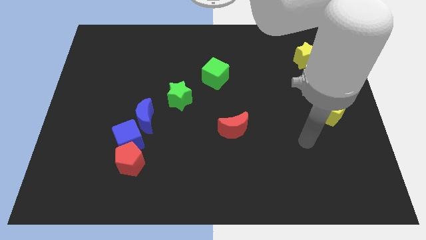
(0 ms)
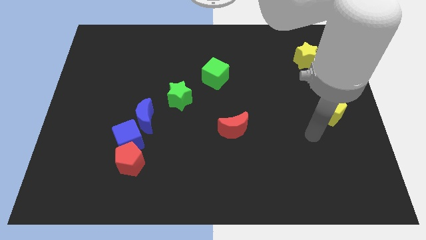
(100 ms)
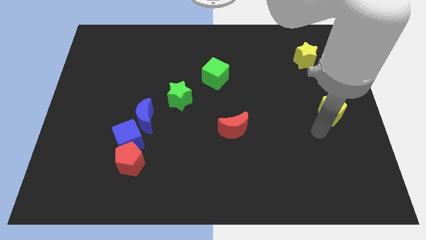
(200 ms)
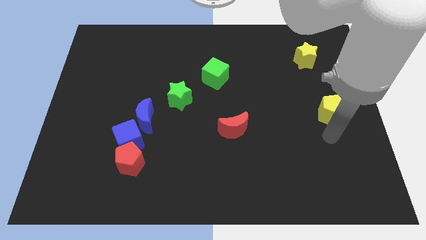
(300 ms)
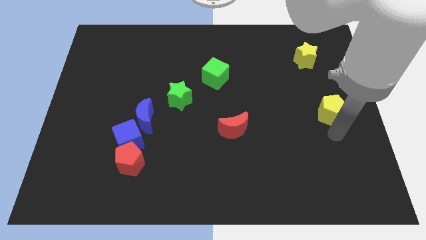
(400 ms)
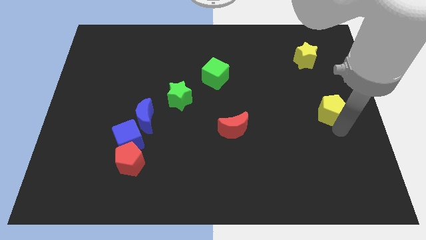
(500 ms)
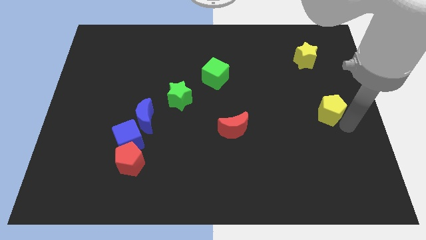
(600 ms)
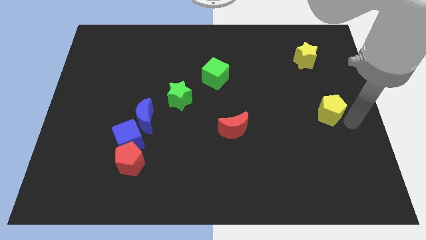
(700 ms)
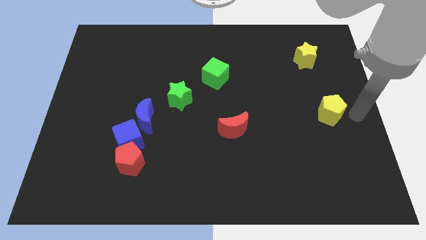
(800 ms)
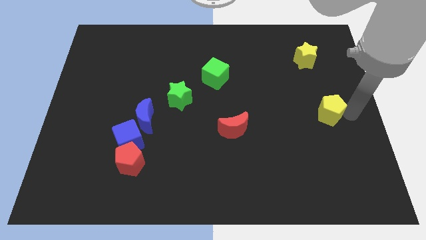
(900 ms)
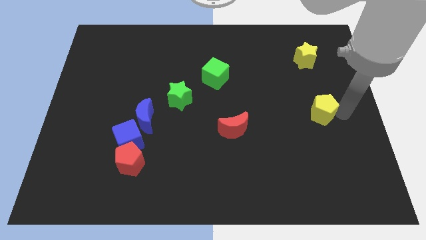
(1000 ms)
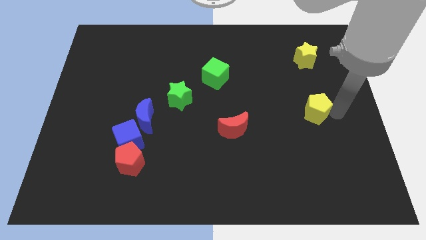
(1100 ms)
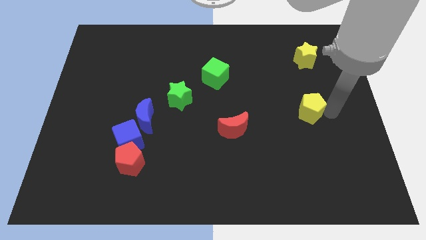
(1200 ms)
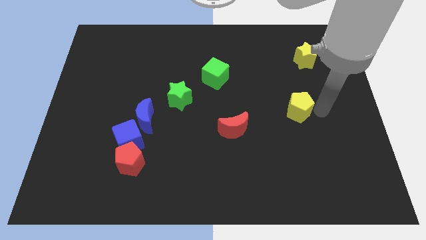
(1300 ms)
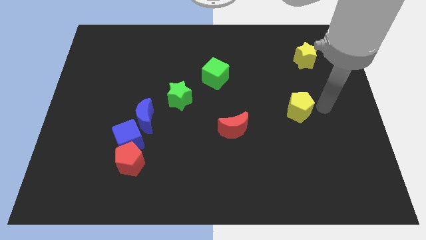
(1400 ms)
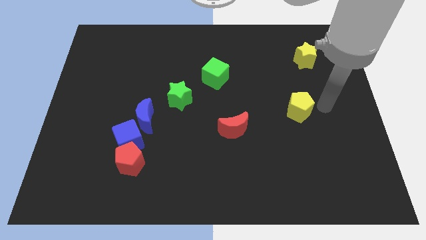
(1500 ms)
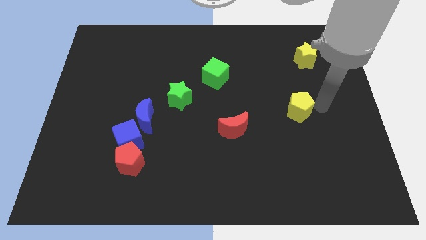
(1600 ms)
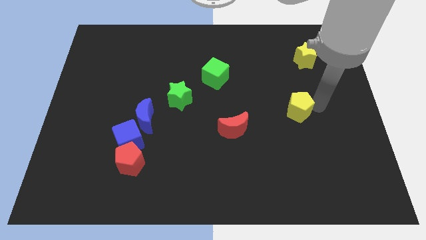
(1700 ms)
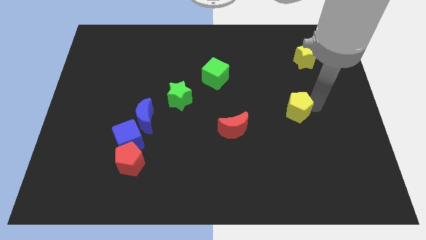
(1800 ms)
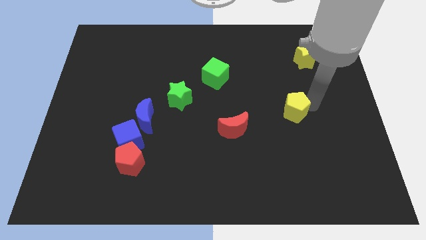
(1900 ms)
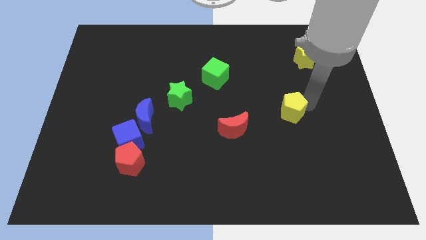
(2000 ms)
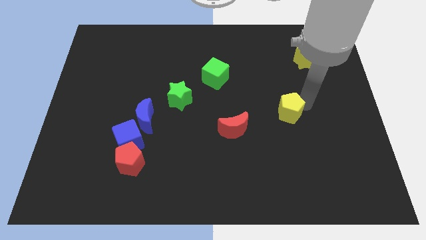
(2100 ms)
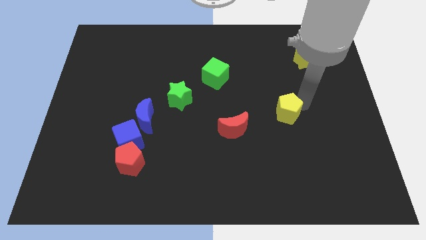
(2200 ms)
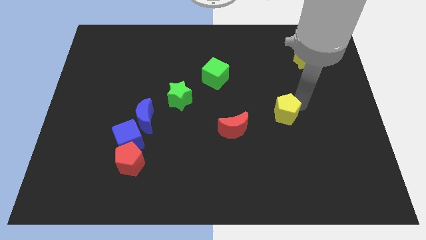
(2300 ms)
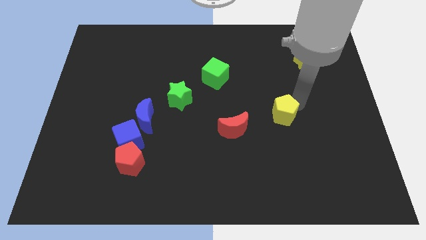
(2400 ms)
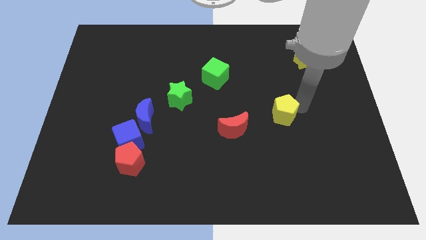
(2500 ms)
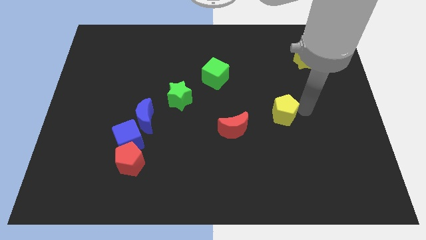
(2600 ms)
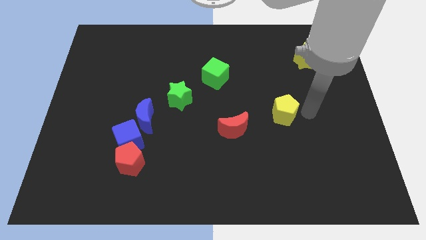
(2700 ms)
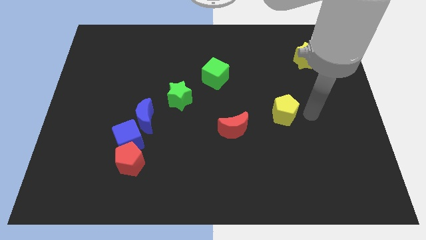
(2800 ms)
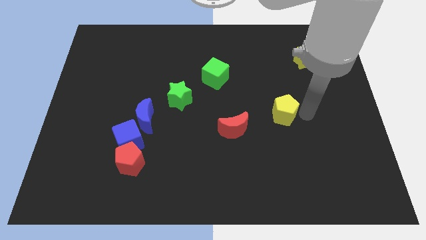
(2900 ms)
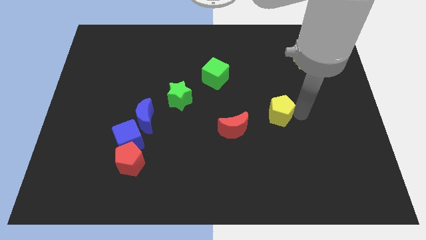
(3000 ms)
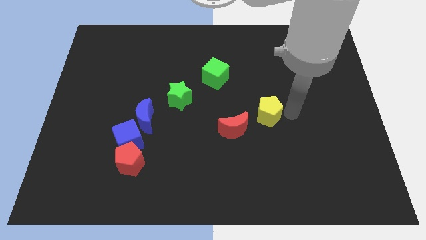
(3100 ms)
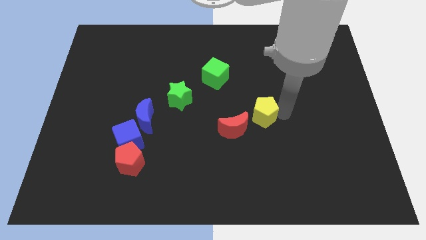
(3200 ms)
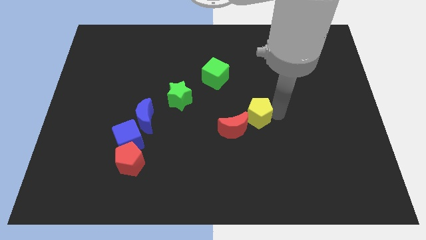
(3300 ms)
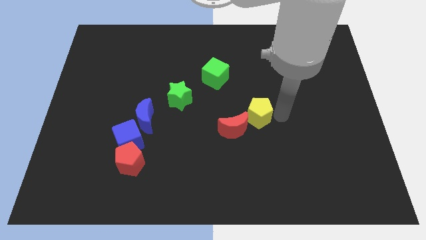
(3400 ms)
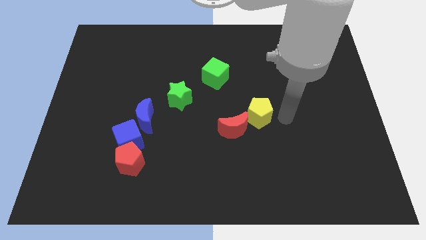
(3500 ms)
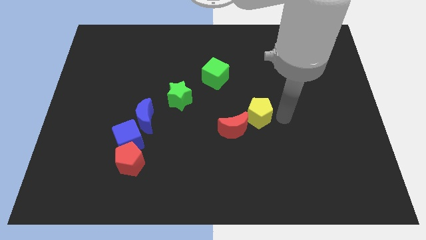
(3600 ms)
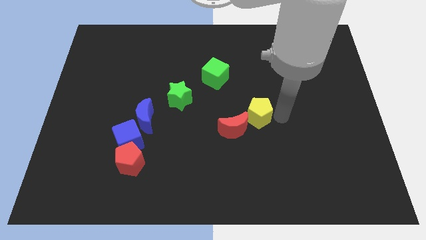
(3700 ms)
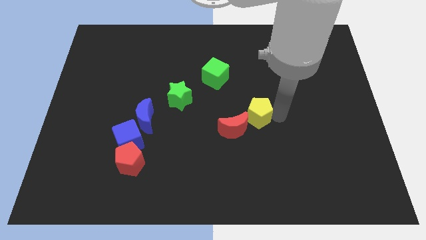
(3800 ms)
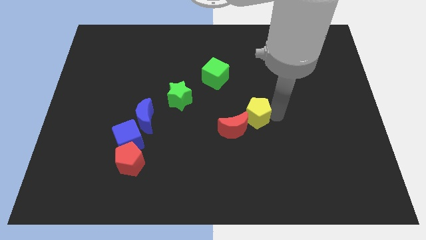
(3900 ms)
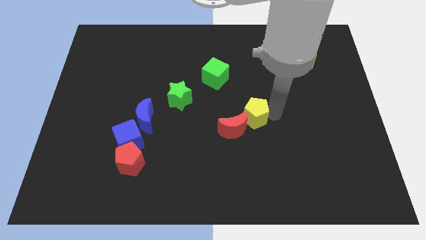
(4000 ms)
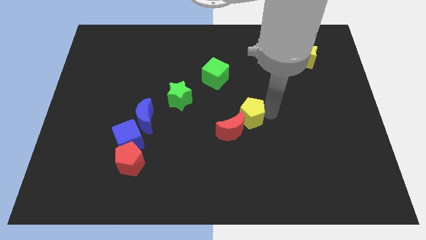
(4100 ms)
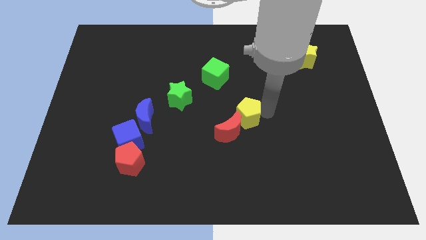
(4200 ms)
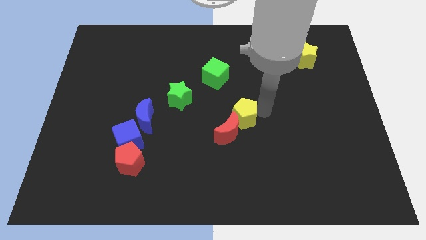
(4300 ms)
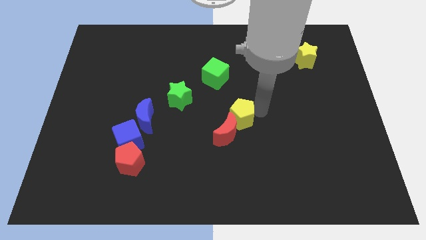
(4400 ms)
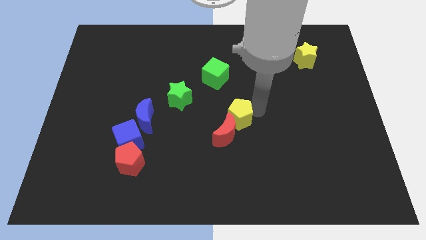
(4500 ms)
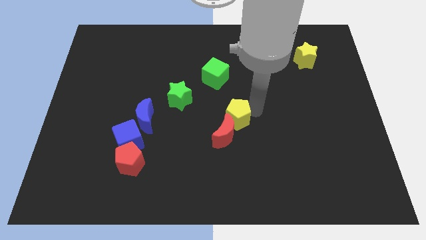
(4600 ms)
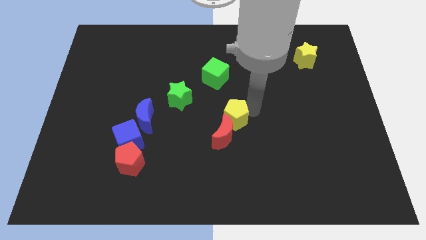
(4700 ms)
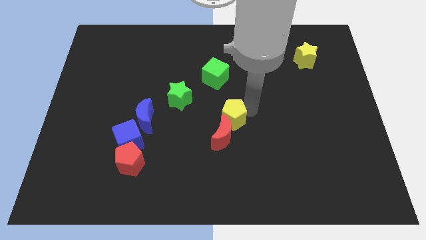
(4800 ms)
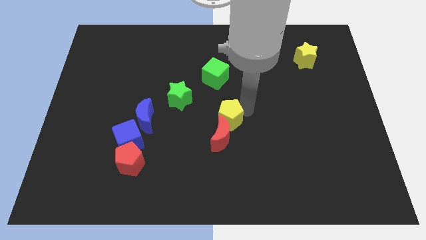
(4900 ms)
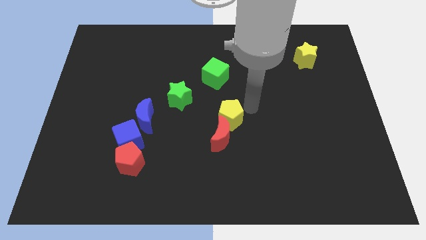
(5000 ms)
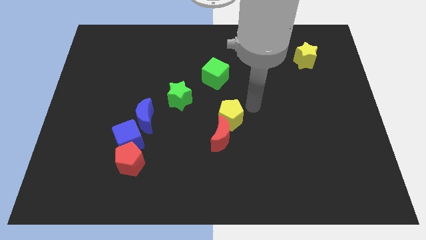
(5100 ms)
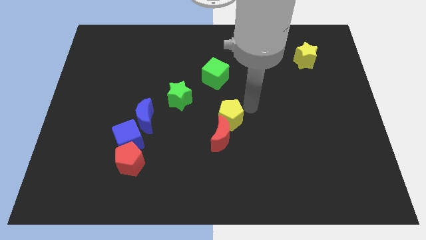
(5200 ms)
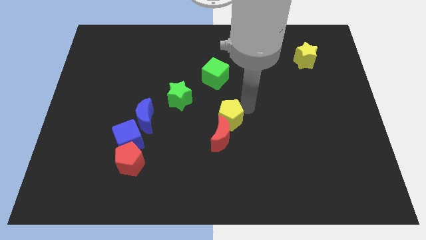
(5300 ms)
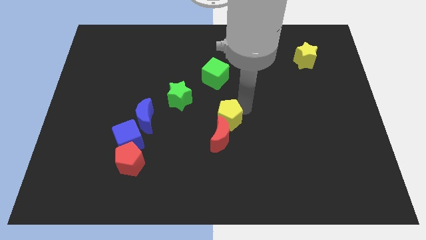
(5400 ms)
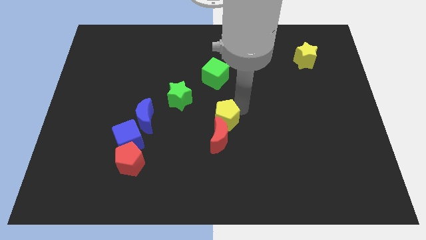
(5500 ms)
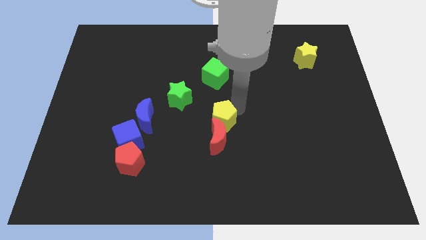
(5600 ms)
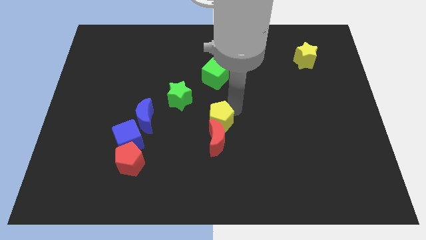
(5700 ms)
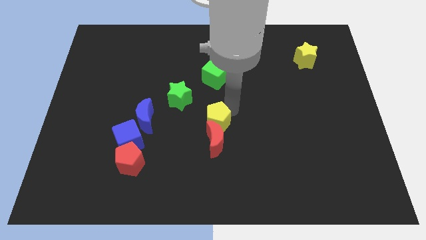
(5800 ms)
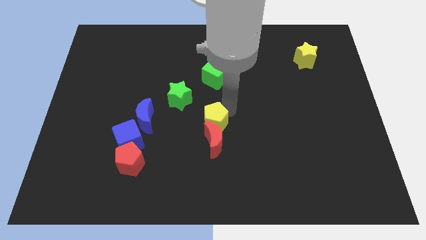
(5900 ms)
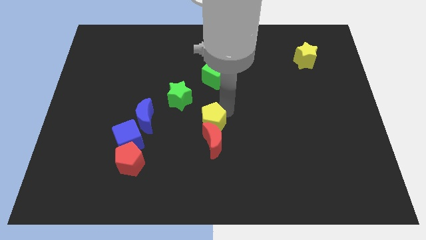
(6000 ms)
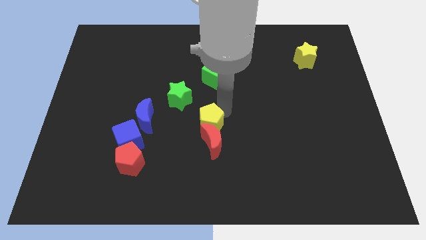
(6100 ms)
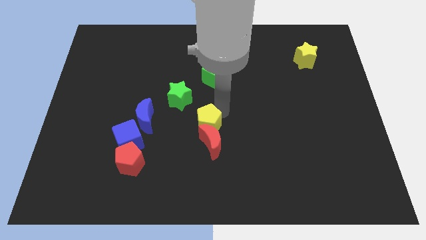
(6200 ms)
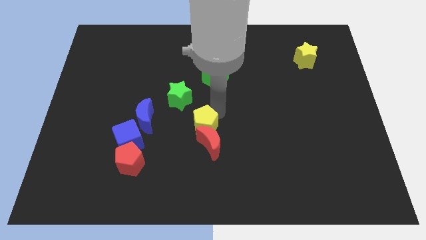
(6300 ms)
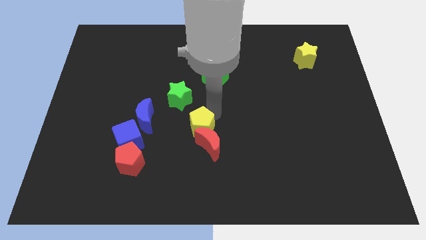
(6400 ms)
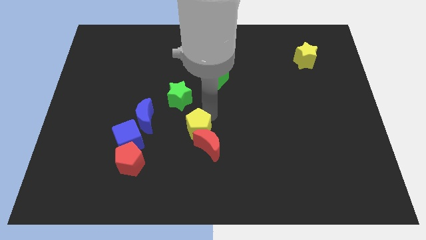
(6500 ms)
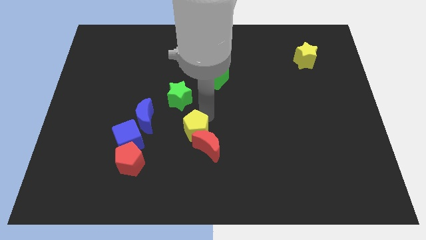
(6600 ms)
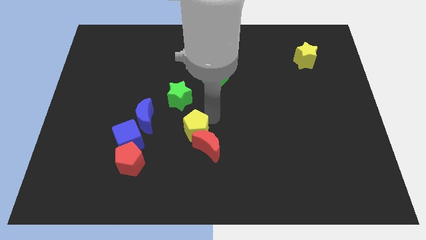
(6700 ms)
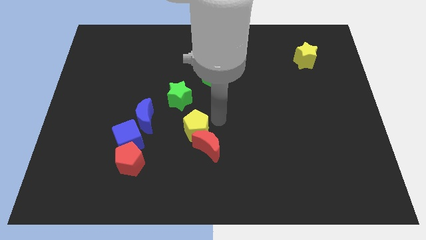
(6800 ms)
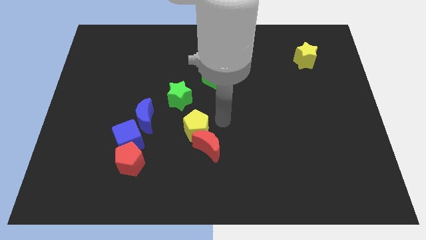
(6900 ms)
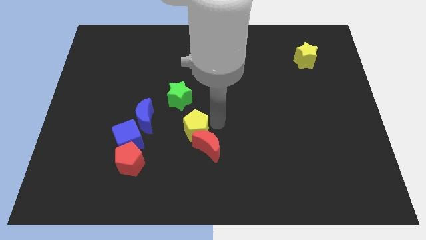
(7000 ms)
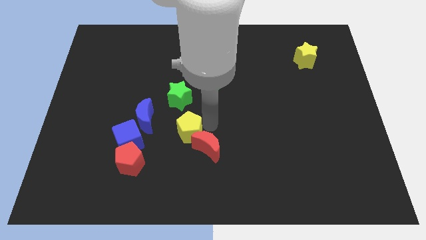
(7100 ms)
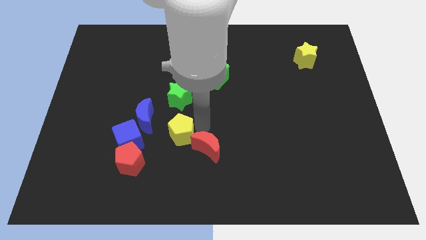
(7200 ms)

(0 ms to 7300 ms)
move the yellow pentagon diagonally down and to the right of the blue moon

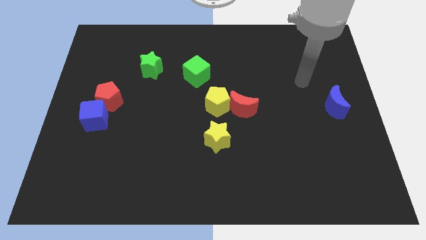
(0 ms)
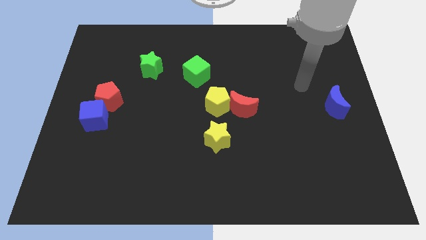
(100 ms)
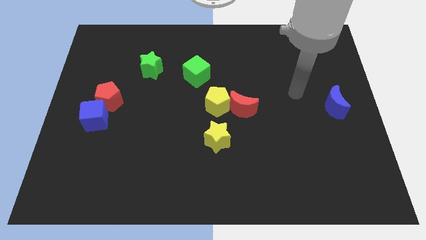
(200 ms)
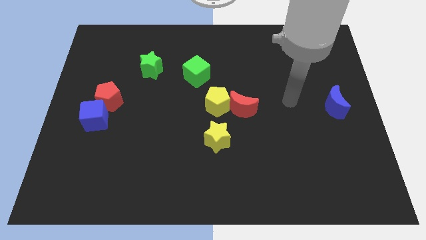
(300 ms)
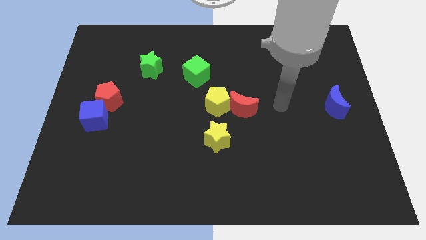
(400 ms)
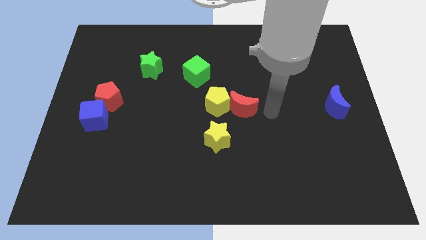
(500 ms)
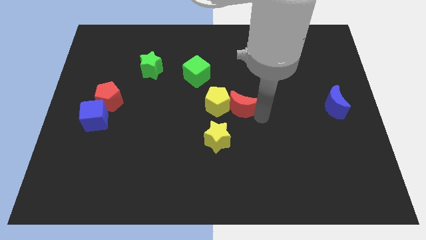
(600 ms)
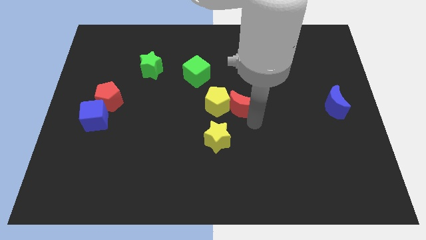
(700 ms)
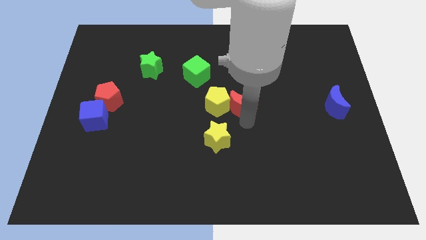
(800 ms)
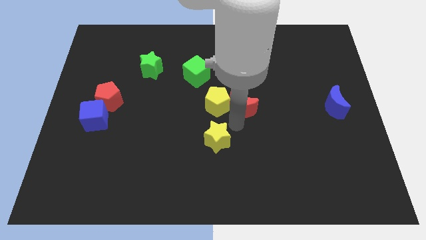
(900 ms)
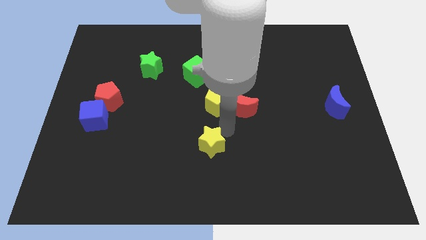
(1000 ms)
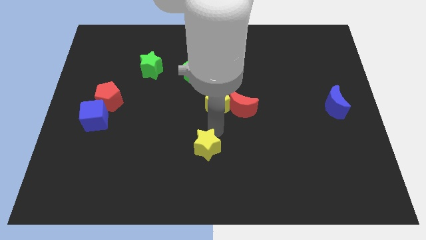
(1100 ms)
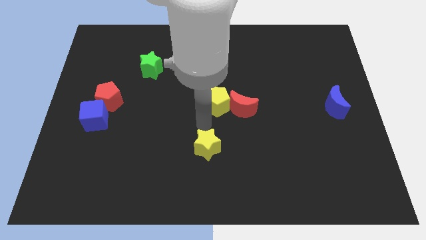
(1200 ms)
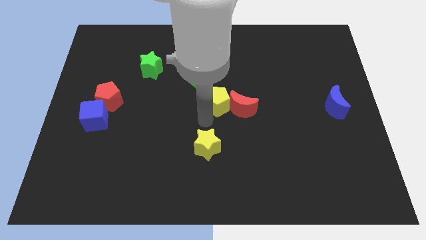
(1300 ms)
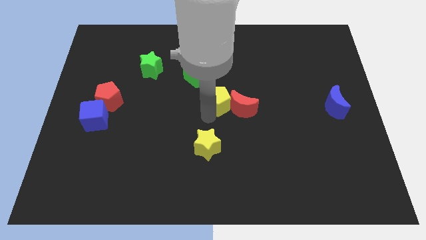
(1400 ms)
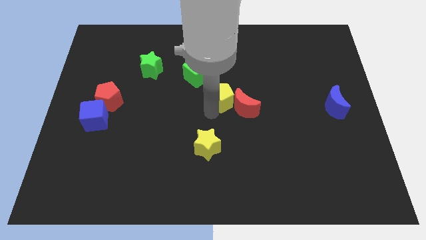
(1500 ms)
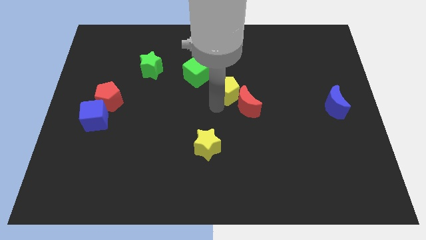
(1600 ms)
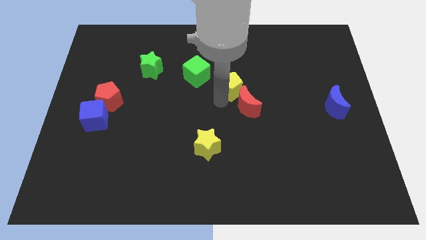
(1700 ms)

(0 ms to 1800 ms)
move the yellow pentagon to the right side of the green cube
